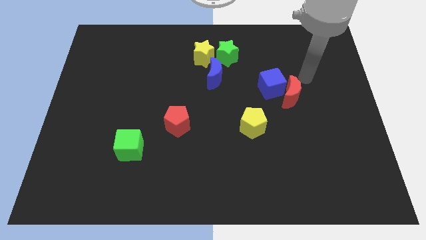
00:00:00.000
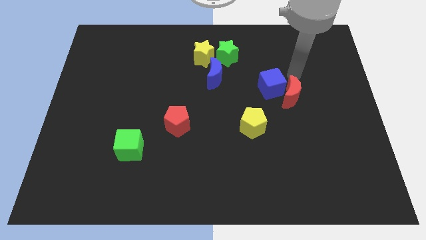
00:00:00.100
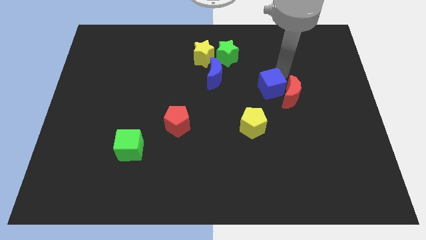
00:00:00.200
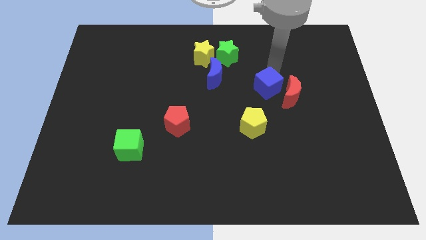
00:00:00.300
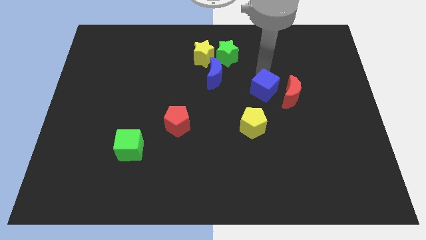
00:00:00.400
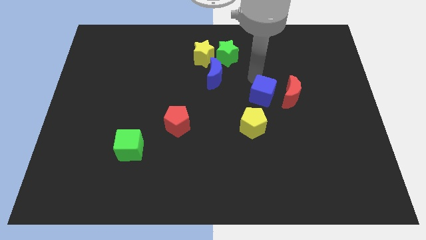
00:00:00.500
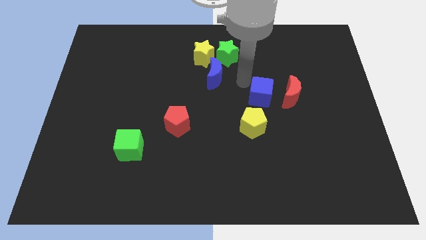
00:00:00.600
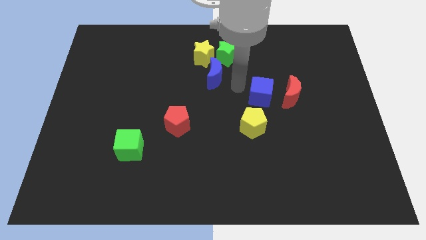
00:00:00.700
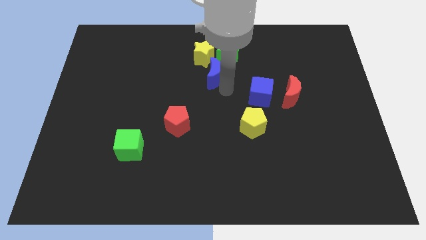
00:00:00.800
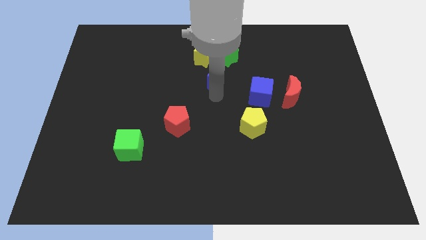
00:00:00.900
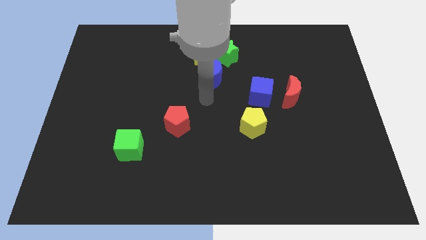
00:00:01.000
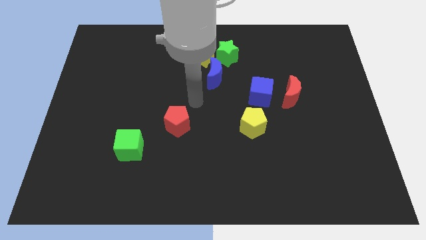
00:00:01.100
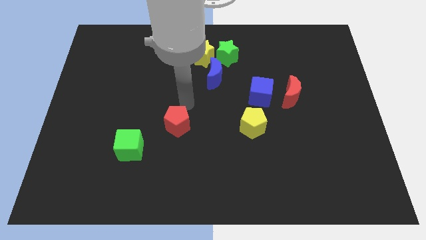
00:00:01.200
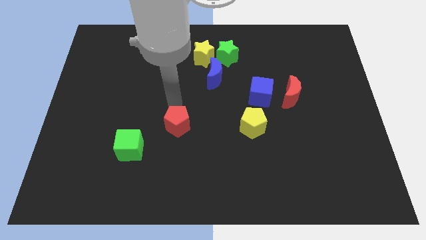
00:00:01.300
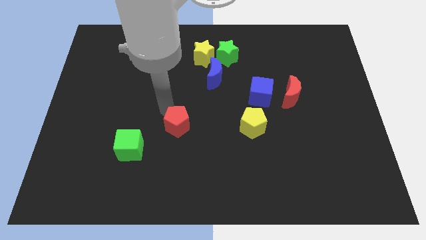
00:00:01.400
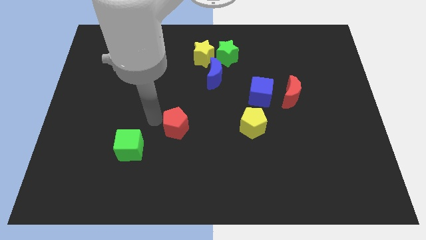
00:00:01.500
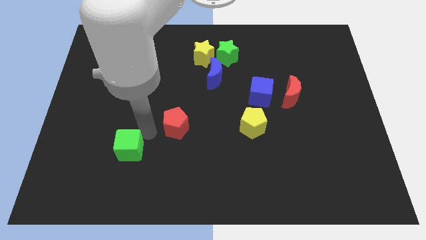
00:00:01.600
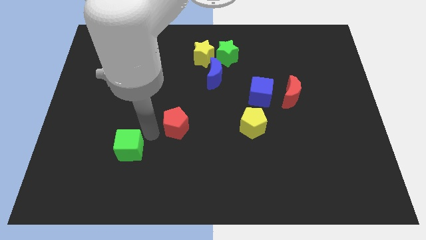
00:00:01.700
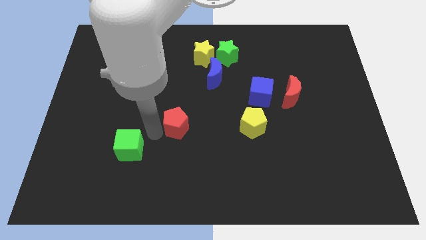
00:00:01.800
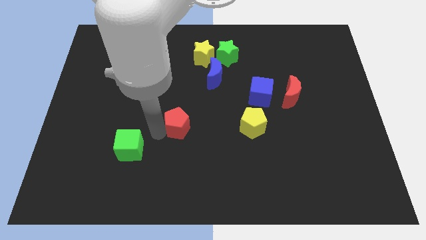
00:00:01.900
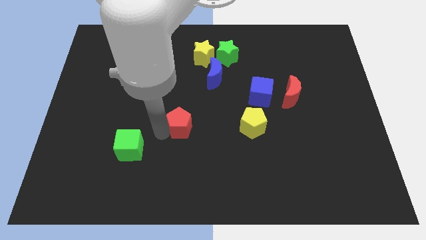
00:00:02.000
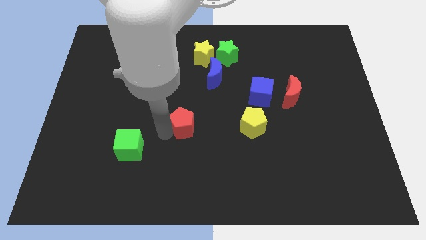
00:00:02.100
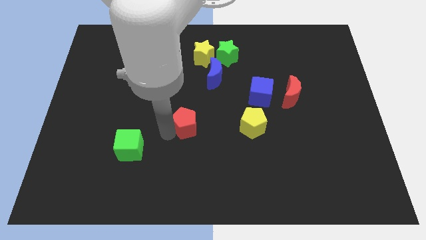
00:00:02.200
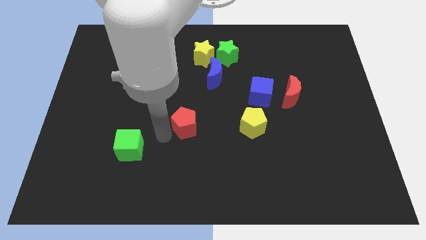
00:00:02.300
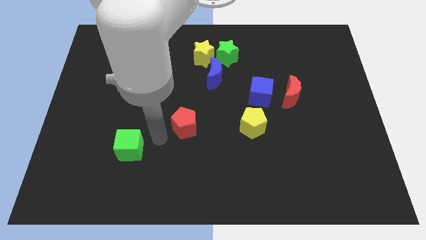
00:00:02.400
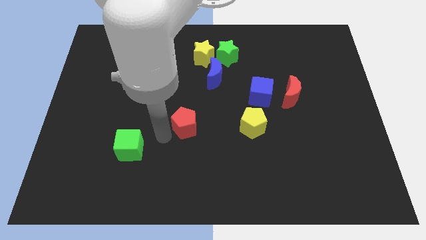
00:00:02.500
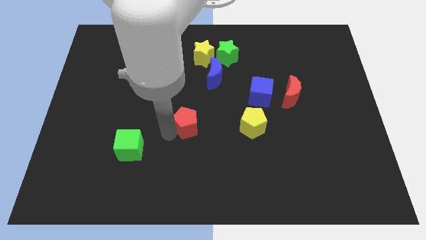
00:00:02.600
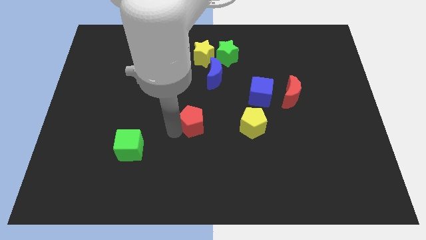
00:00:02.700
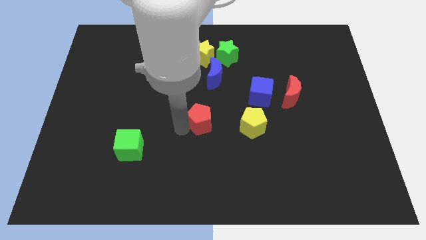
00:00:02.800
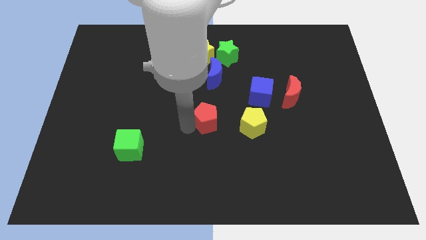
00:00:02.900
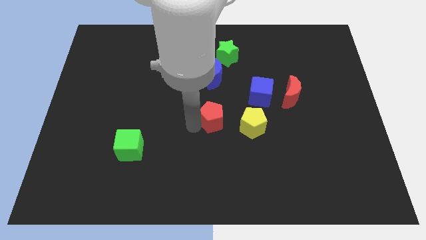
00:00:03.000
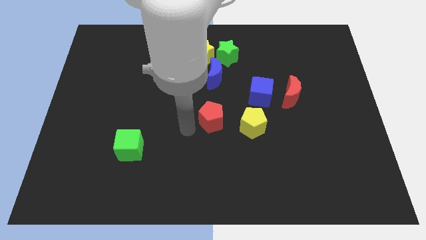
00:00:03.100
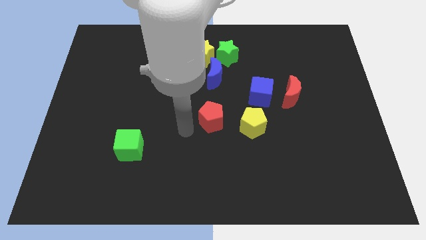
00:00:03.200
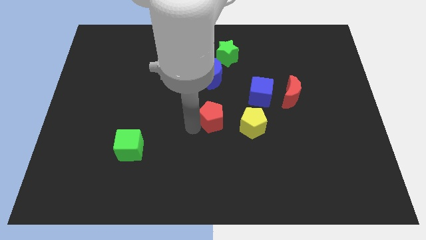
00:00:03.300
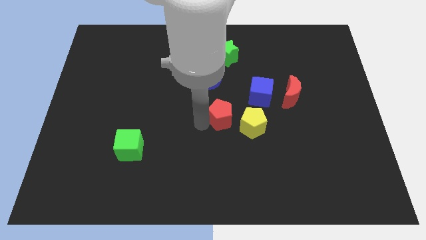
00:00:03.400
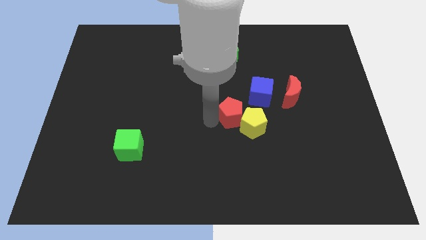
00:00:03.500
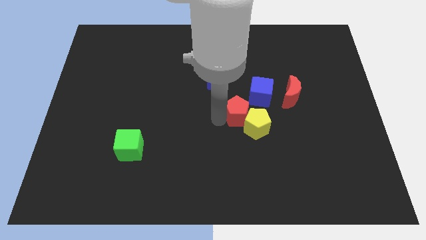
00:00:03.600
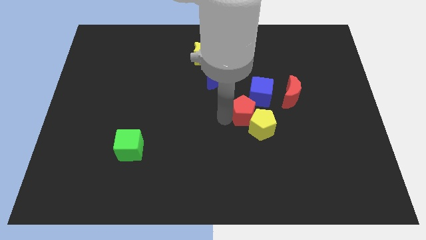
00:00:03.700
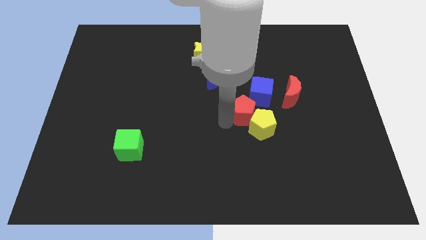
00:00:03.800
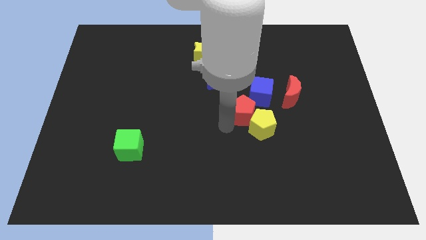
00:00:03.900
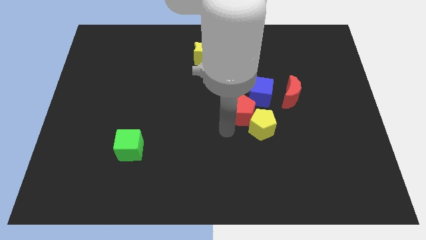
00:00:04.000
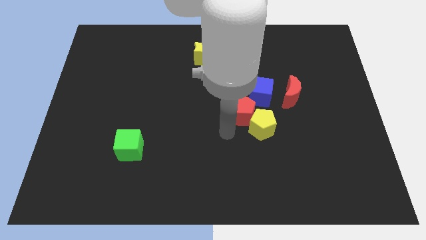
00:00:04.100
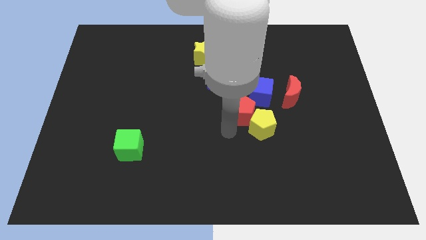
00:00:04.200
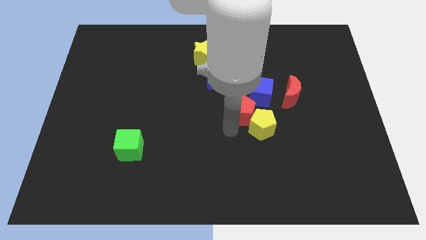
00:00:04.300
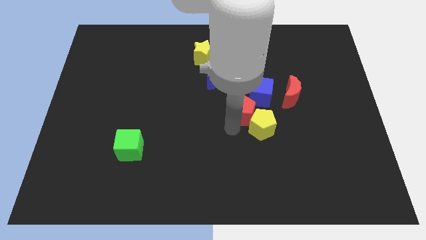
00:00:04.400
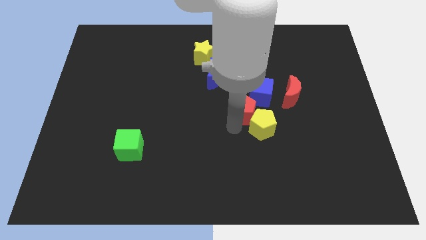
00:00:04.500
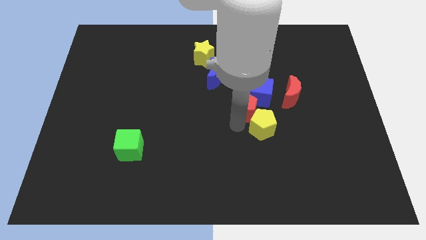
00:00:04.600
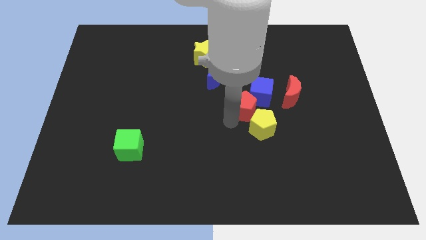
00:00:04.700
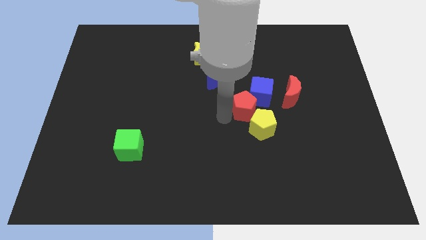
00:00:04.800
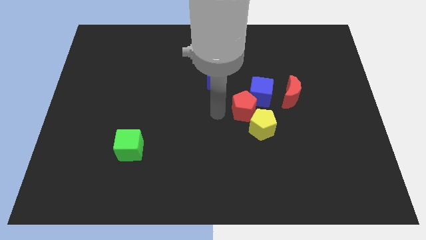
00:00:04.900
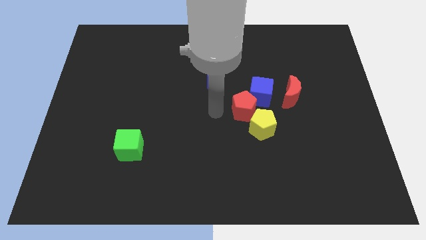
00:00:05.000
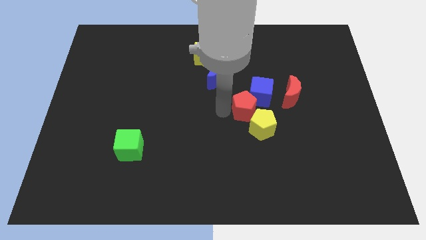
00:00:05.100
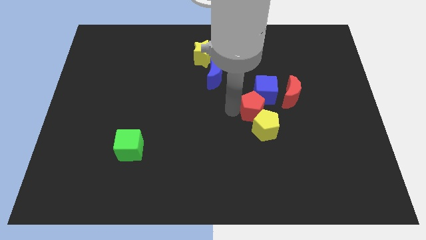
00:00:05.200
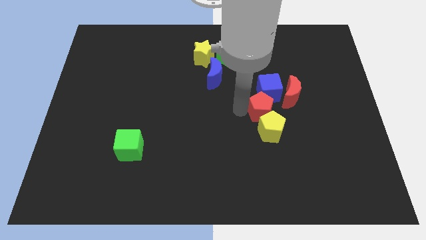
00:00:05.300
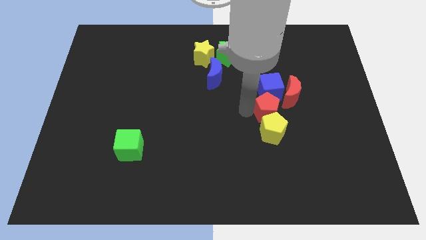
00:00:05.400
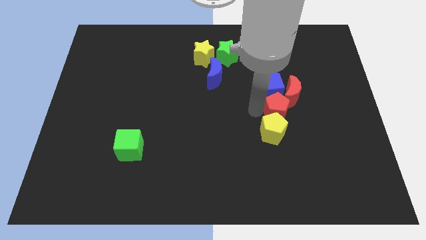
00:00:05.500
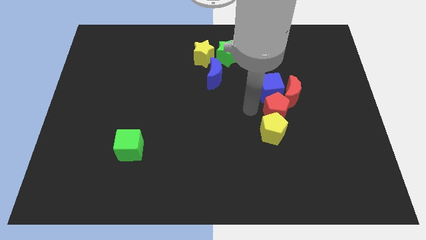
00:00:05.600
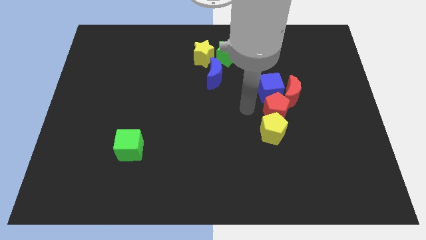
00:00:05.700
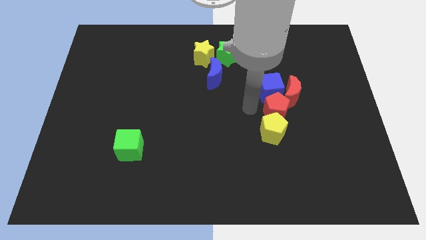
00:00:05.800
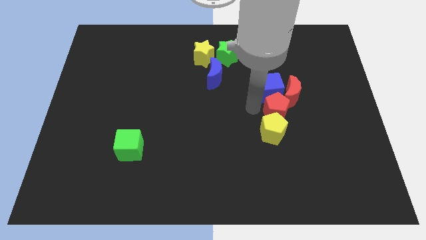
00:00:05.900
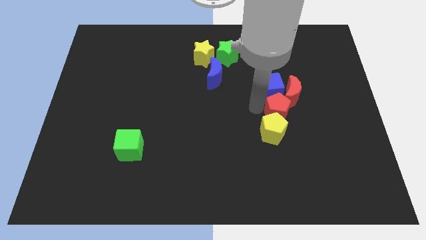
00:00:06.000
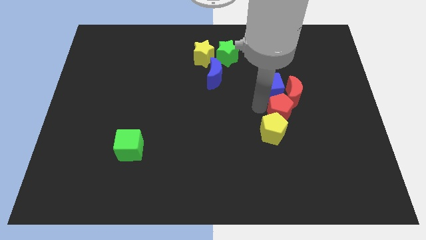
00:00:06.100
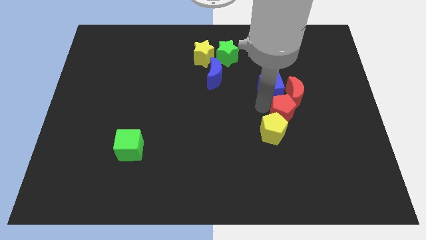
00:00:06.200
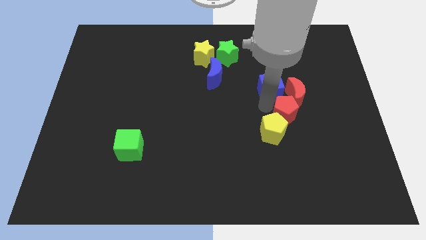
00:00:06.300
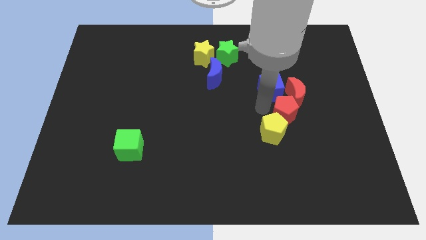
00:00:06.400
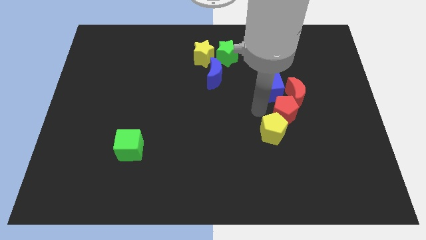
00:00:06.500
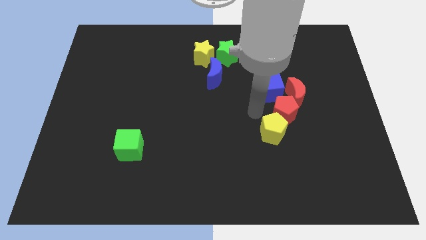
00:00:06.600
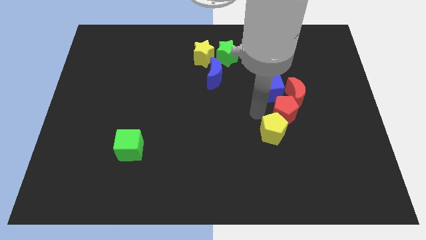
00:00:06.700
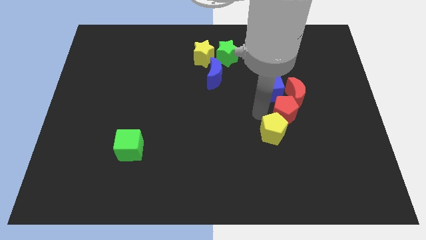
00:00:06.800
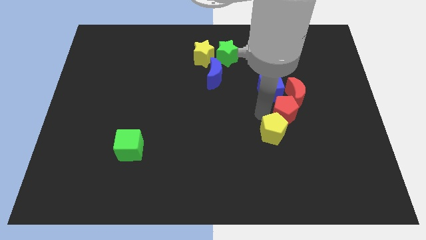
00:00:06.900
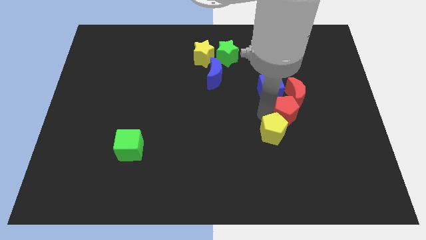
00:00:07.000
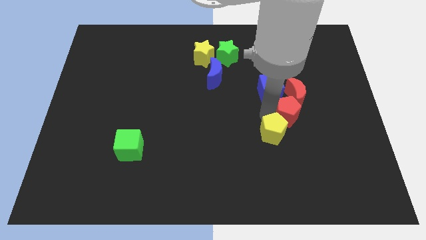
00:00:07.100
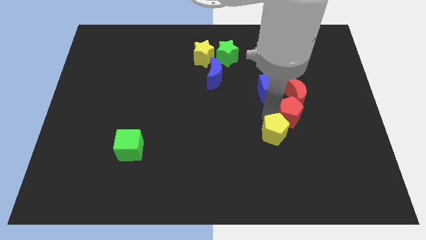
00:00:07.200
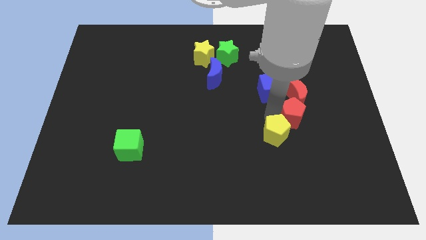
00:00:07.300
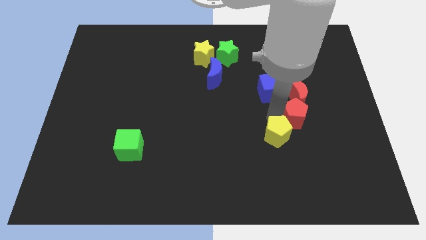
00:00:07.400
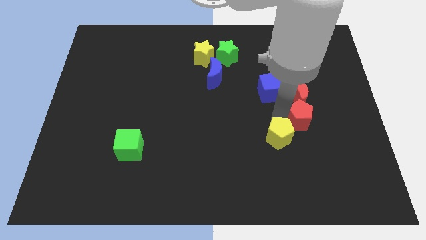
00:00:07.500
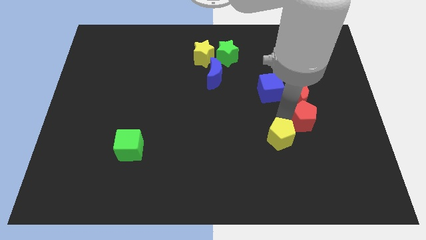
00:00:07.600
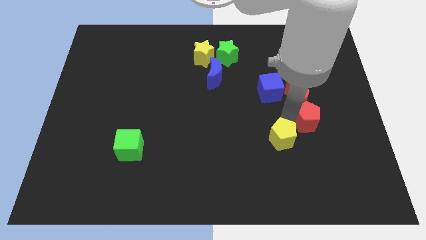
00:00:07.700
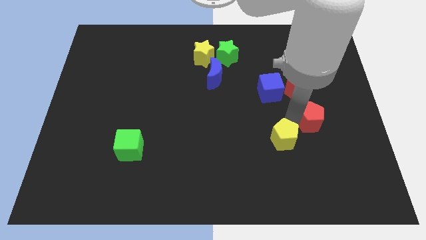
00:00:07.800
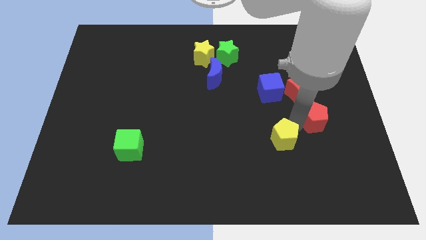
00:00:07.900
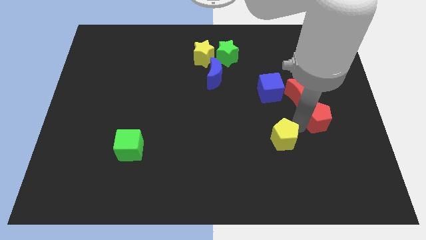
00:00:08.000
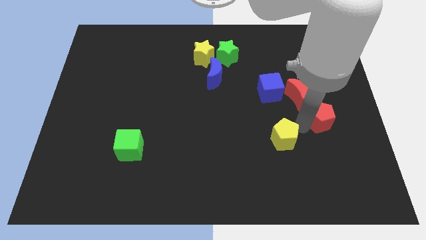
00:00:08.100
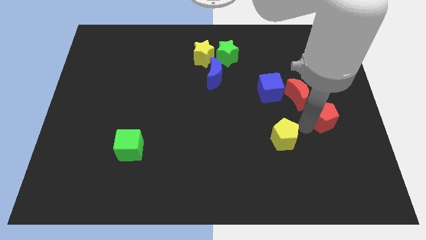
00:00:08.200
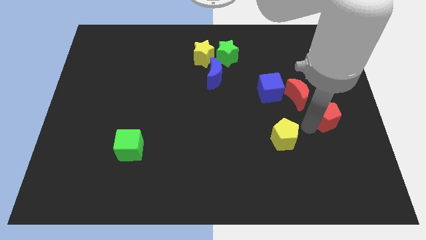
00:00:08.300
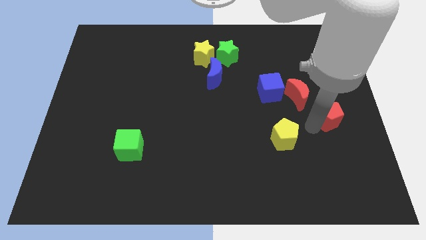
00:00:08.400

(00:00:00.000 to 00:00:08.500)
move the red pentagon to the right side of the board
